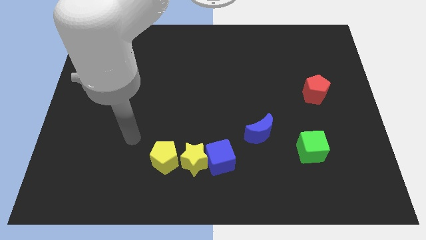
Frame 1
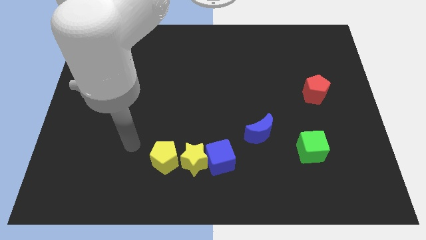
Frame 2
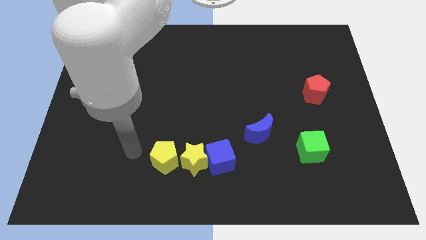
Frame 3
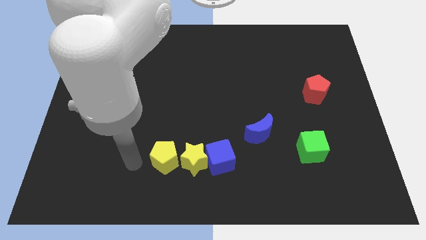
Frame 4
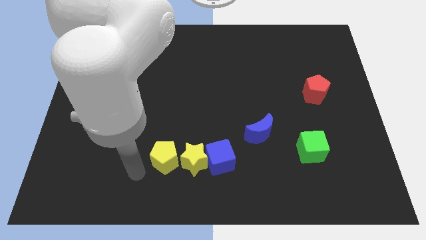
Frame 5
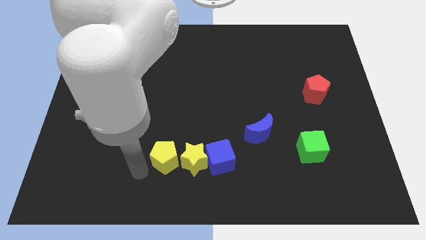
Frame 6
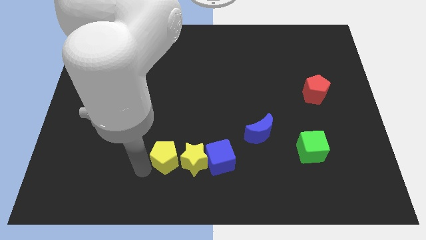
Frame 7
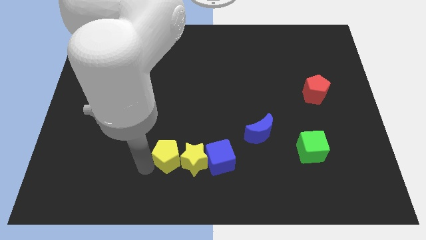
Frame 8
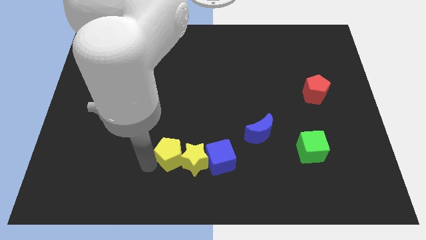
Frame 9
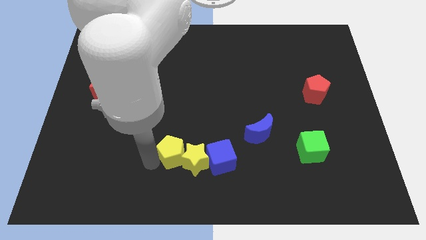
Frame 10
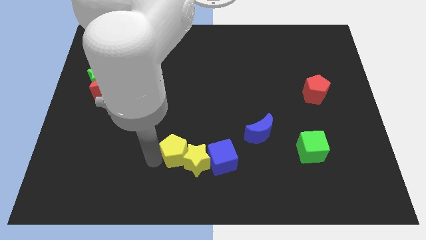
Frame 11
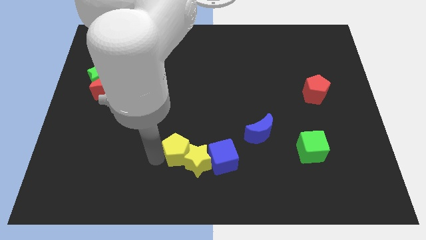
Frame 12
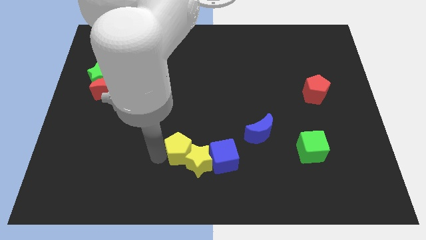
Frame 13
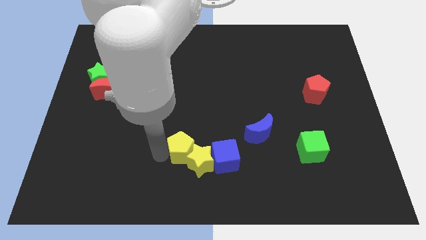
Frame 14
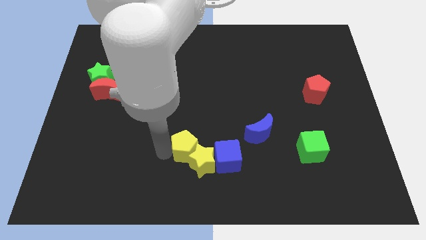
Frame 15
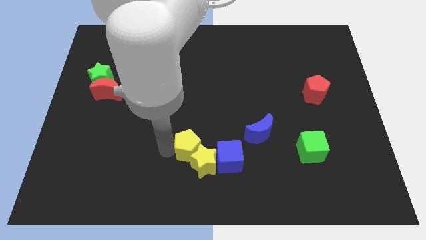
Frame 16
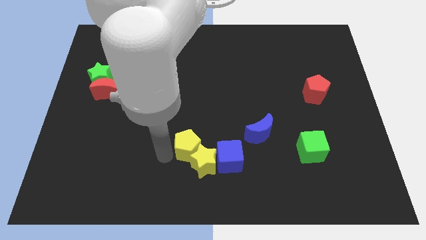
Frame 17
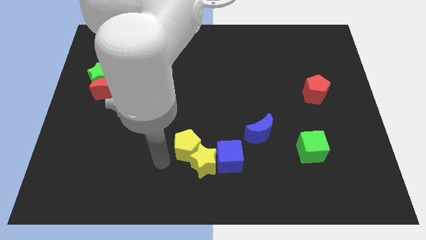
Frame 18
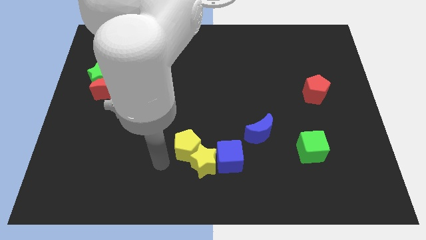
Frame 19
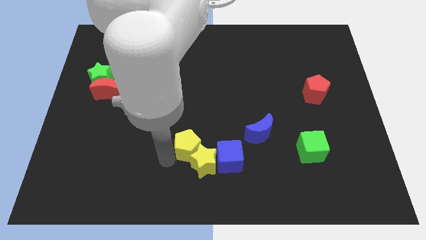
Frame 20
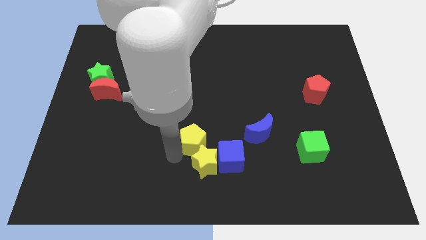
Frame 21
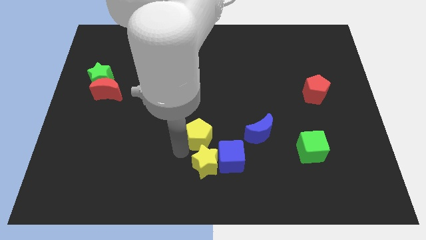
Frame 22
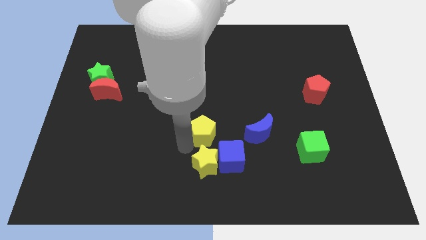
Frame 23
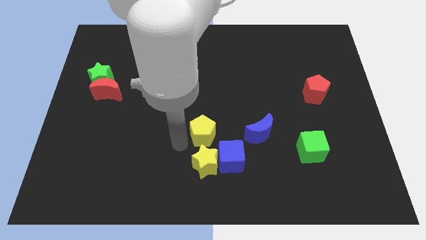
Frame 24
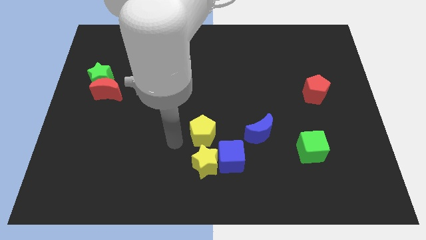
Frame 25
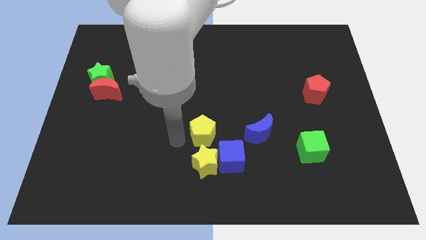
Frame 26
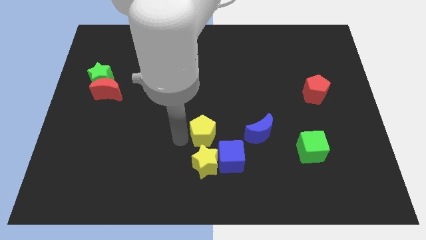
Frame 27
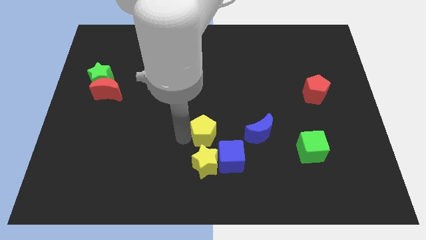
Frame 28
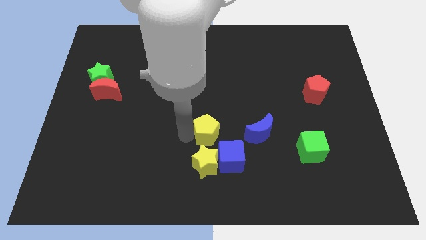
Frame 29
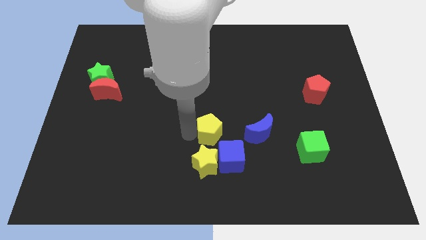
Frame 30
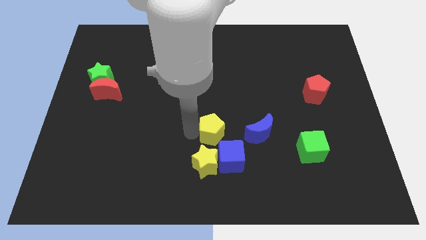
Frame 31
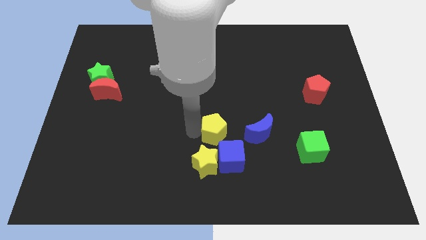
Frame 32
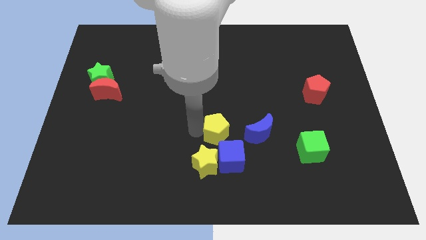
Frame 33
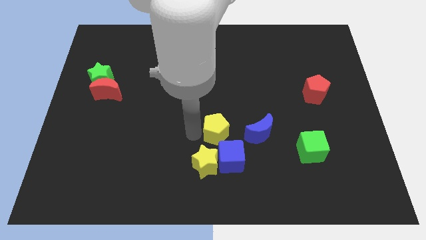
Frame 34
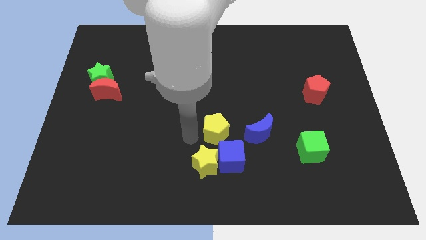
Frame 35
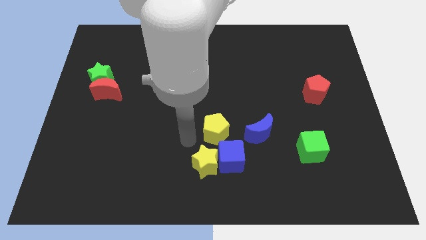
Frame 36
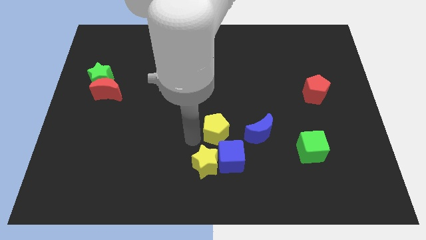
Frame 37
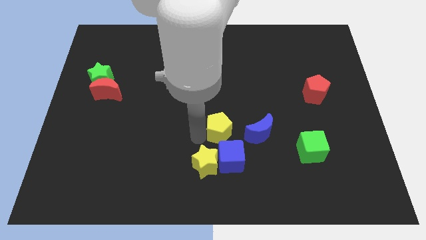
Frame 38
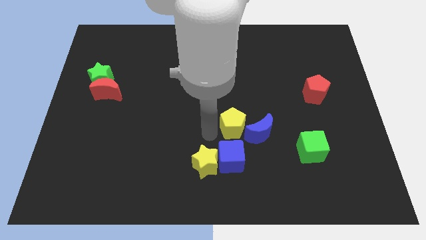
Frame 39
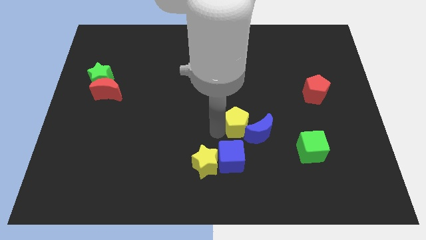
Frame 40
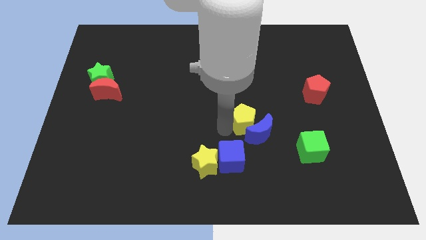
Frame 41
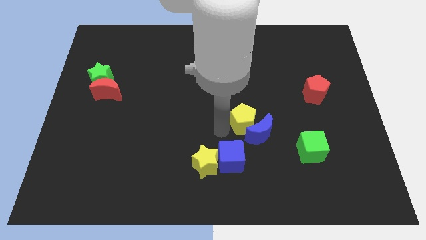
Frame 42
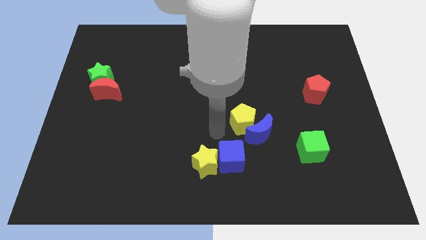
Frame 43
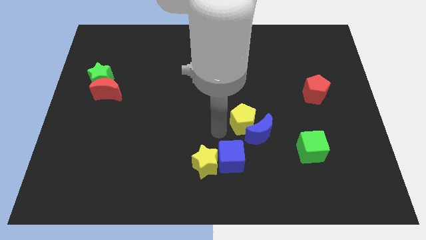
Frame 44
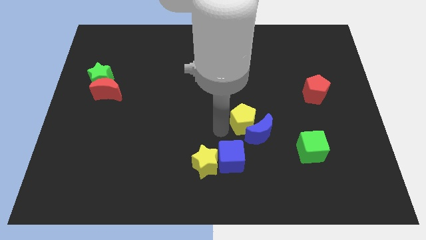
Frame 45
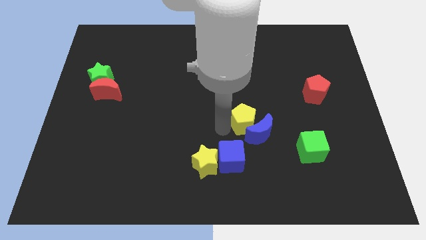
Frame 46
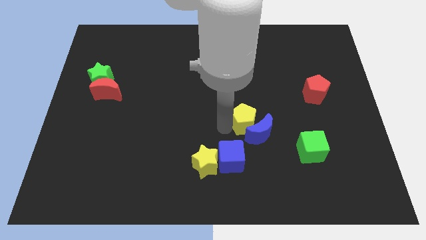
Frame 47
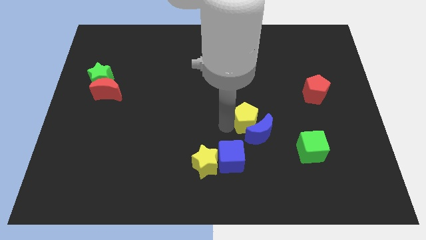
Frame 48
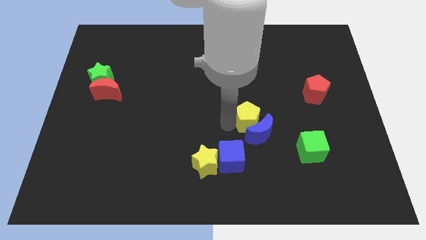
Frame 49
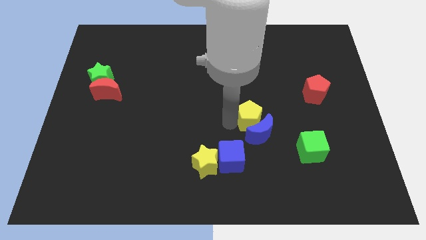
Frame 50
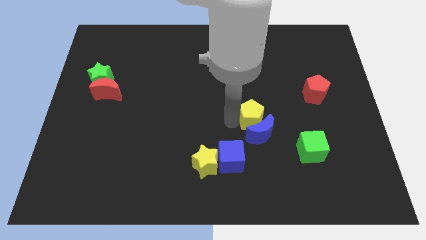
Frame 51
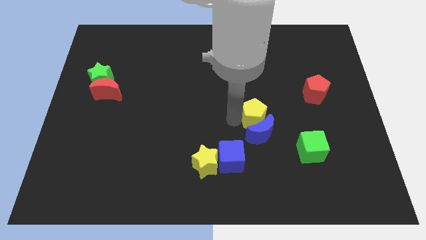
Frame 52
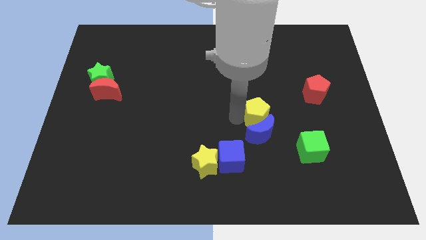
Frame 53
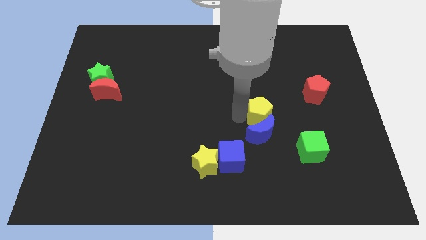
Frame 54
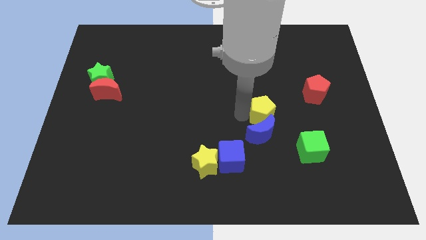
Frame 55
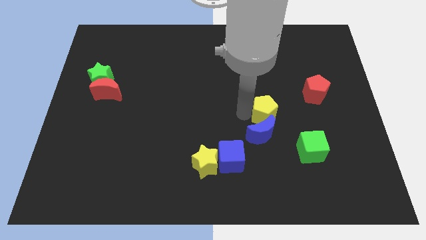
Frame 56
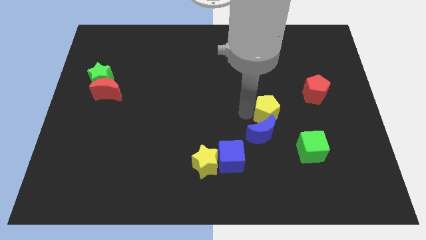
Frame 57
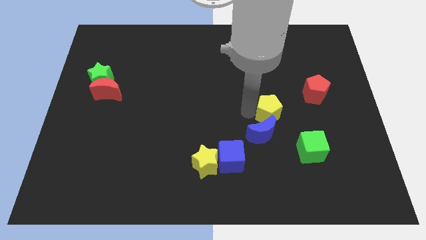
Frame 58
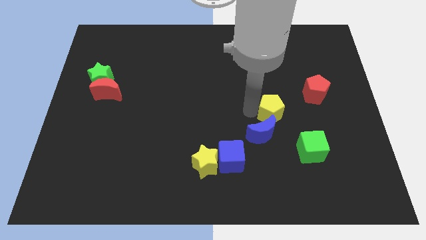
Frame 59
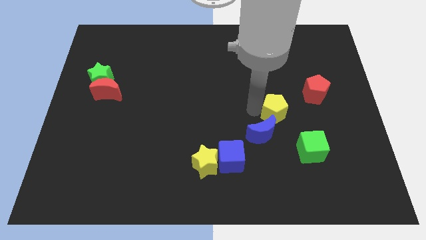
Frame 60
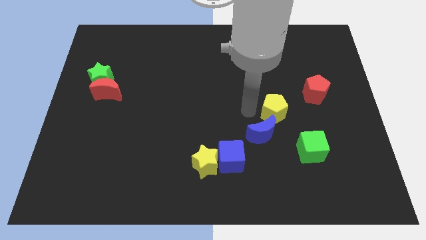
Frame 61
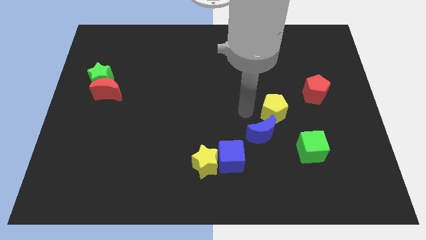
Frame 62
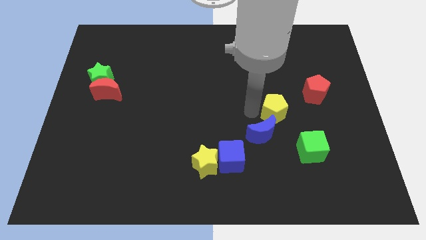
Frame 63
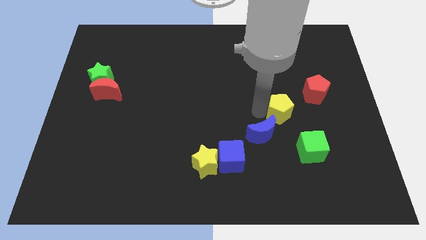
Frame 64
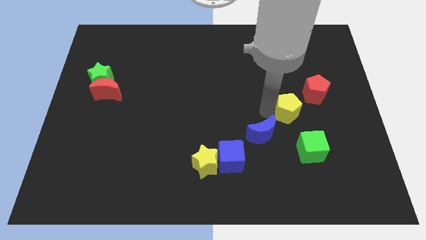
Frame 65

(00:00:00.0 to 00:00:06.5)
move the yellow pentagon above the green cube

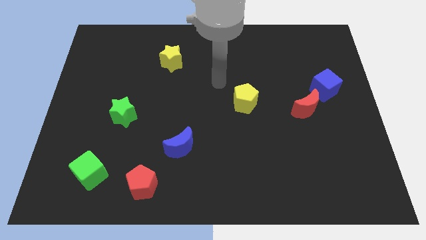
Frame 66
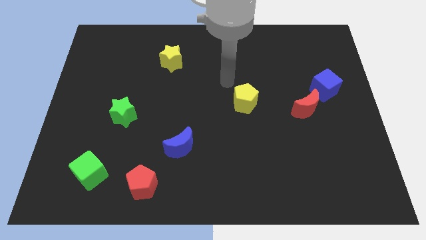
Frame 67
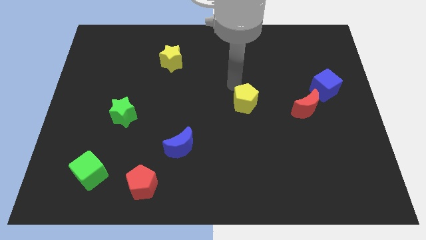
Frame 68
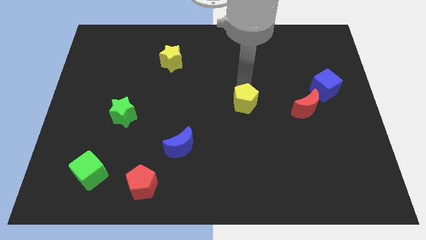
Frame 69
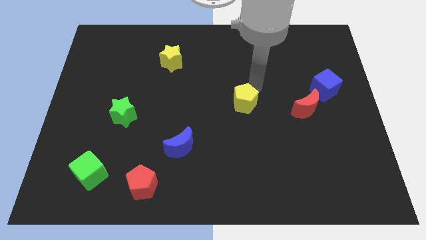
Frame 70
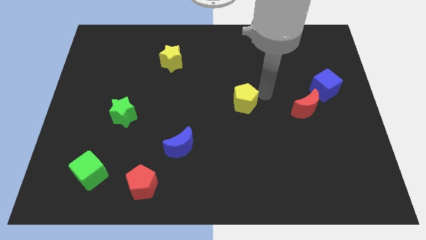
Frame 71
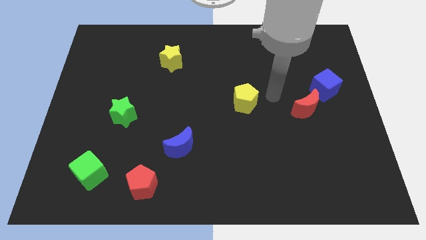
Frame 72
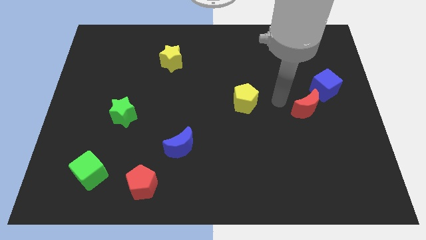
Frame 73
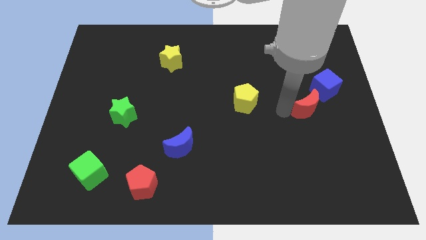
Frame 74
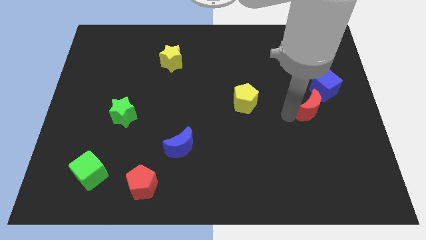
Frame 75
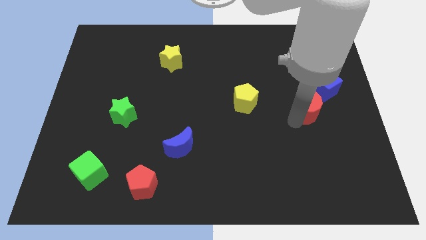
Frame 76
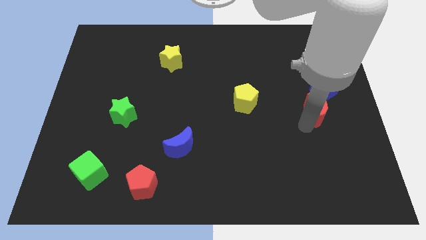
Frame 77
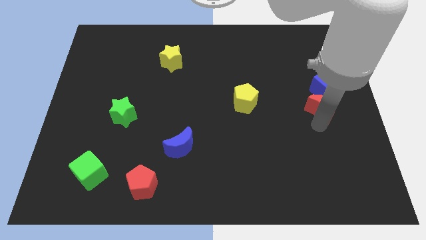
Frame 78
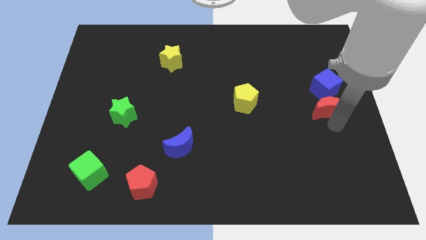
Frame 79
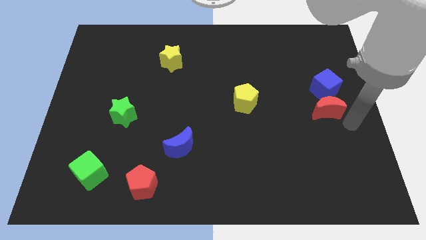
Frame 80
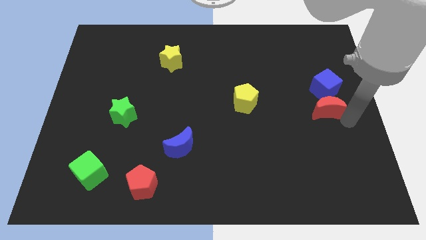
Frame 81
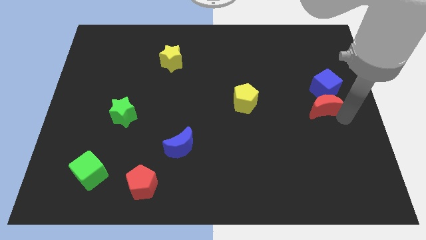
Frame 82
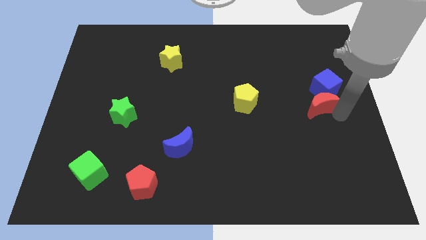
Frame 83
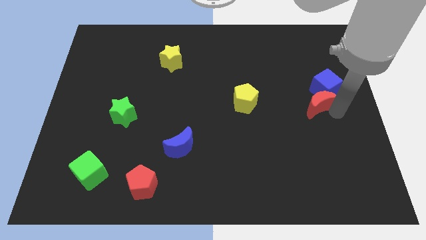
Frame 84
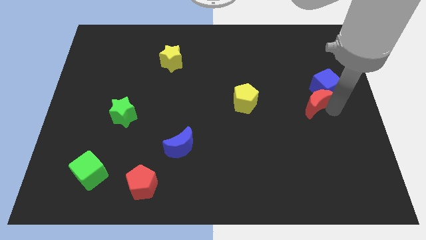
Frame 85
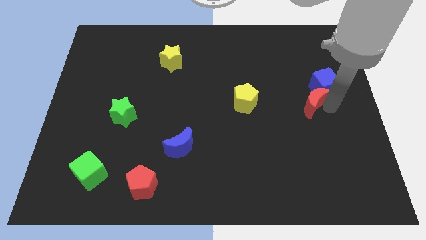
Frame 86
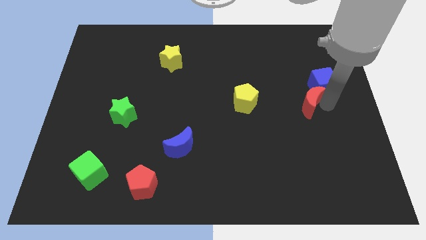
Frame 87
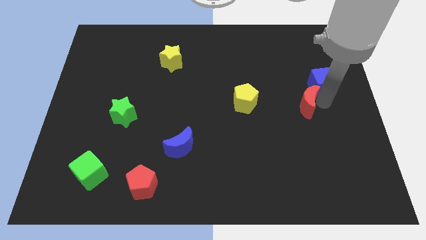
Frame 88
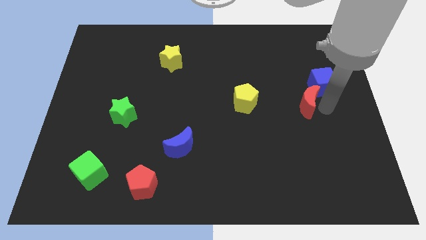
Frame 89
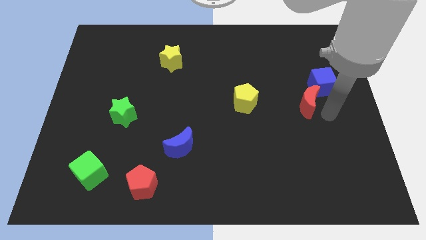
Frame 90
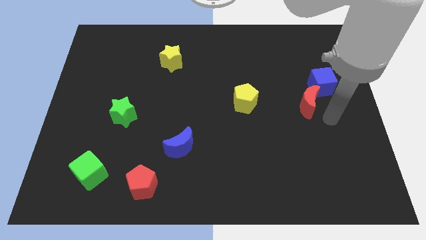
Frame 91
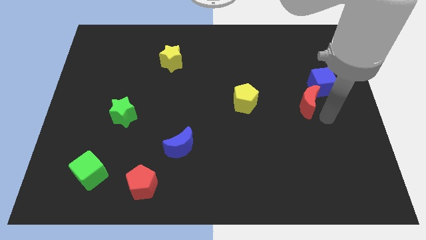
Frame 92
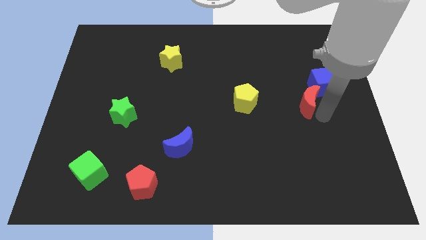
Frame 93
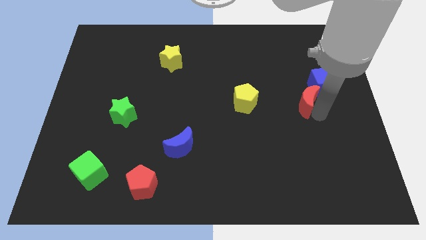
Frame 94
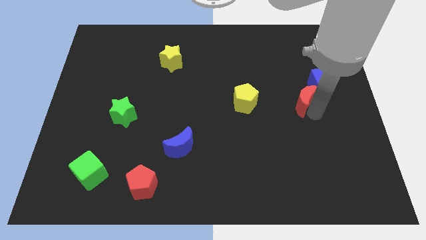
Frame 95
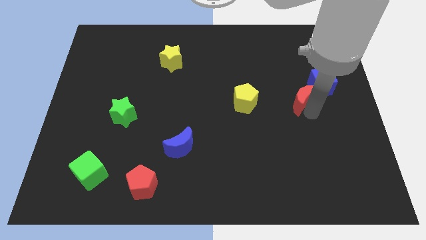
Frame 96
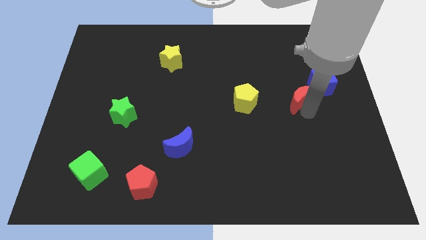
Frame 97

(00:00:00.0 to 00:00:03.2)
move the red moon left of the blue cube
